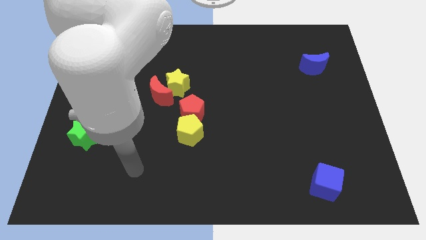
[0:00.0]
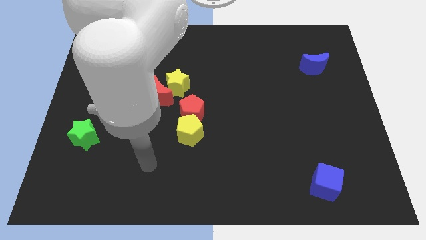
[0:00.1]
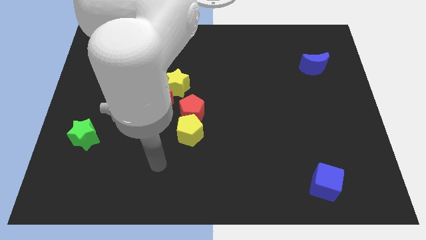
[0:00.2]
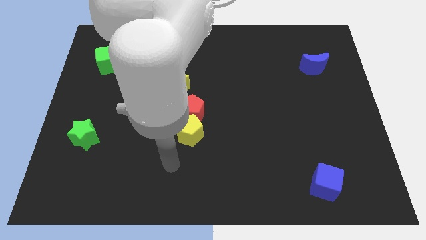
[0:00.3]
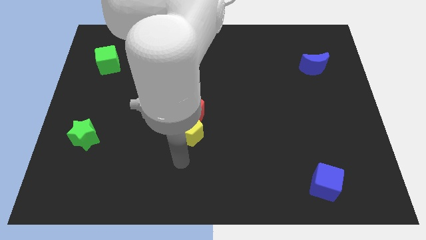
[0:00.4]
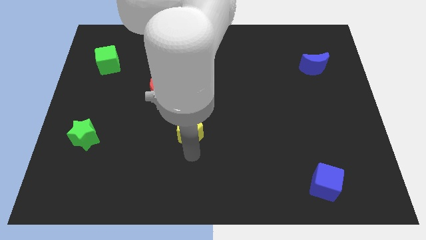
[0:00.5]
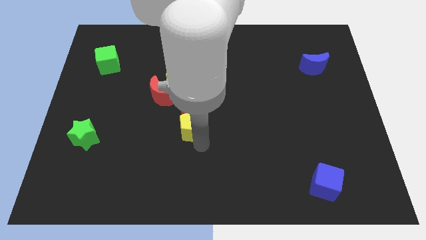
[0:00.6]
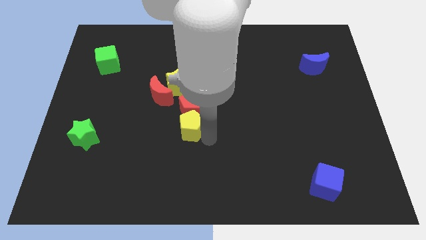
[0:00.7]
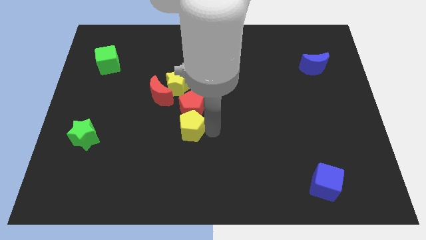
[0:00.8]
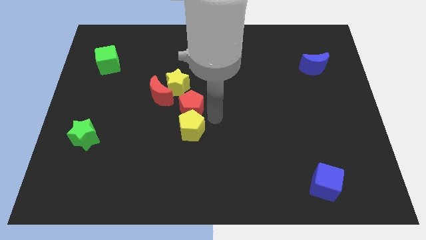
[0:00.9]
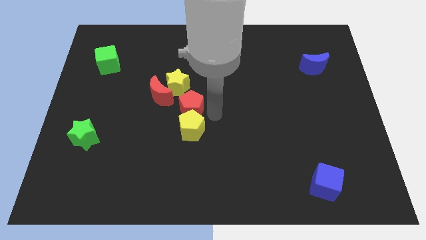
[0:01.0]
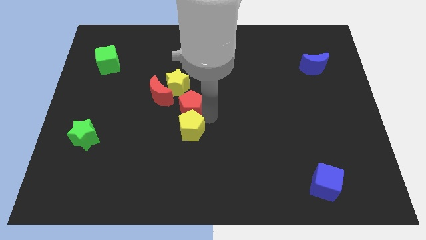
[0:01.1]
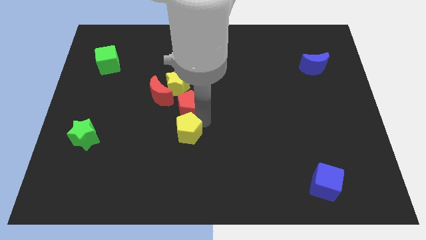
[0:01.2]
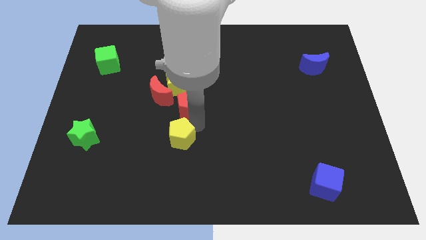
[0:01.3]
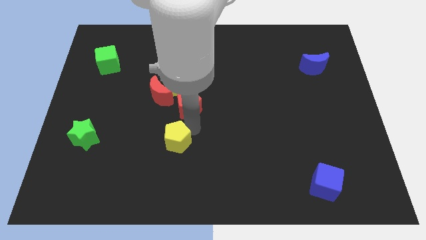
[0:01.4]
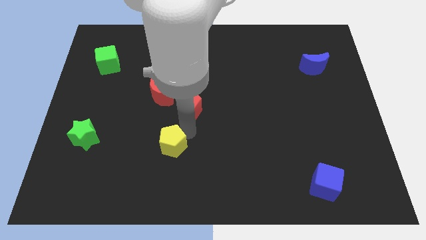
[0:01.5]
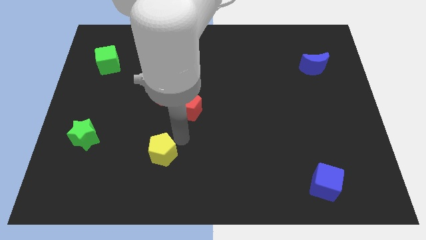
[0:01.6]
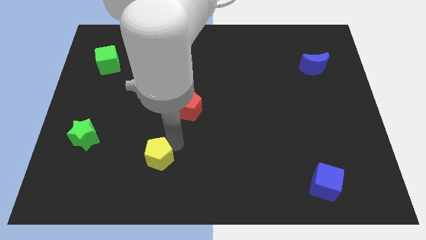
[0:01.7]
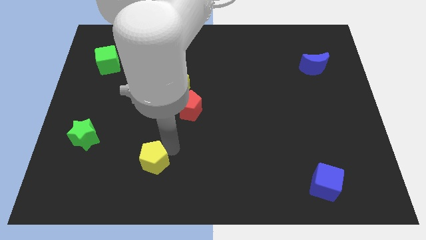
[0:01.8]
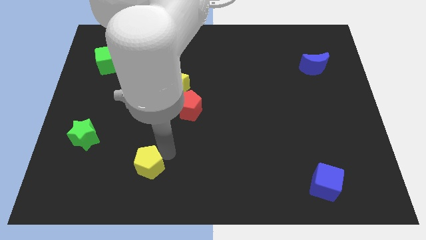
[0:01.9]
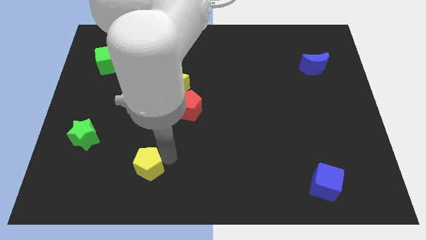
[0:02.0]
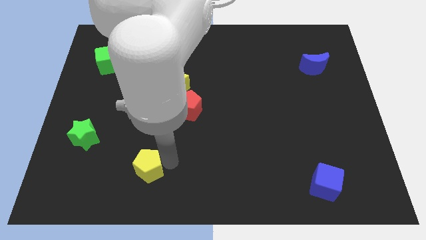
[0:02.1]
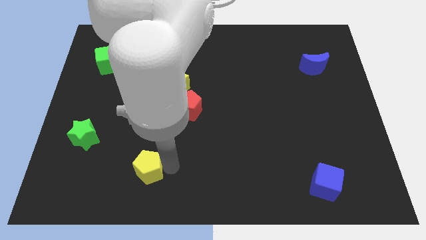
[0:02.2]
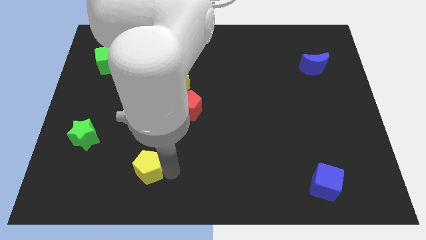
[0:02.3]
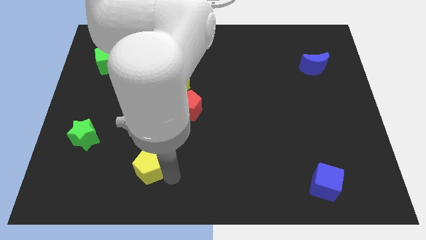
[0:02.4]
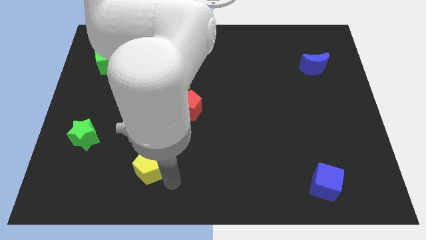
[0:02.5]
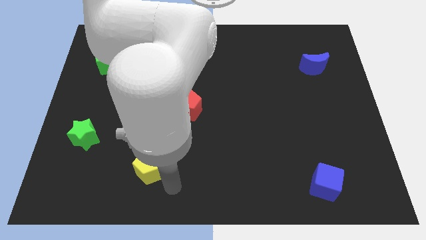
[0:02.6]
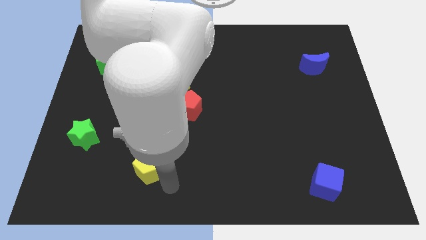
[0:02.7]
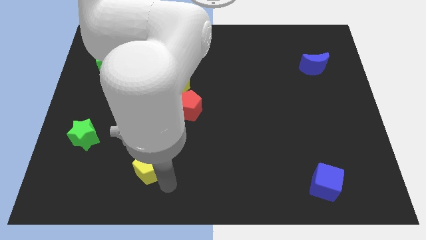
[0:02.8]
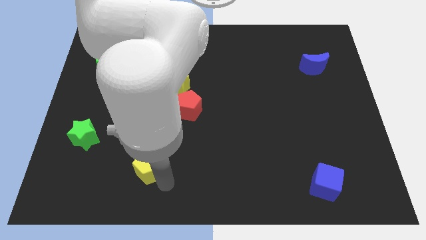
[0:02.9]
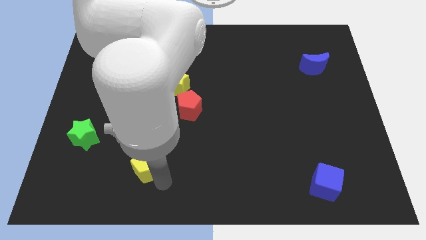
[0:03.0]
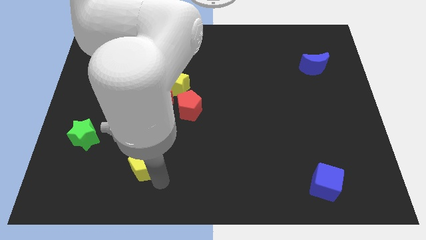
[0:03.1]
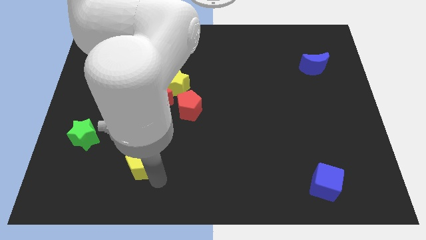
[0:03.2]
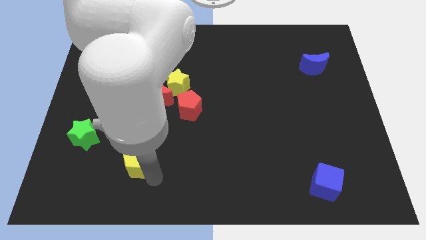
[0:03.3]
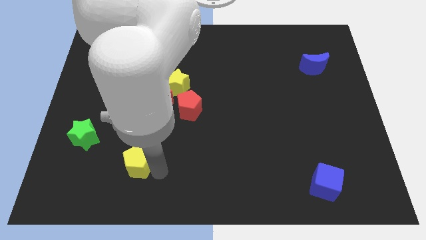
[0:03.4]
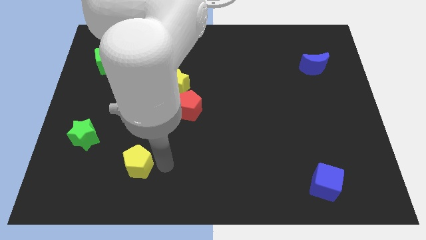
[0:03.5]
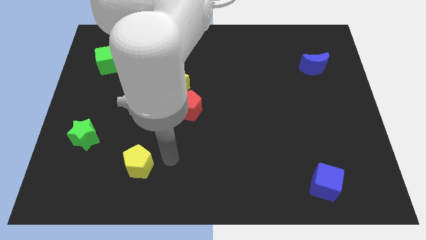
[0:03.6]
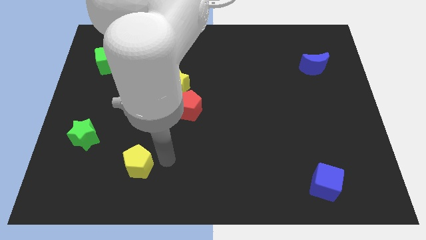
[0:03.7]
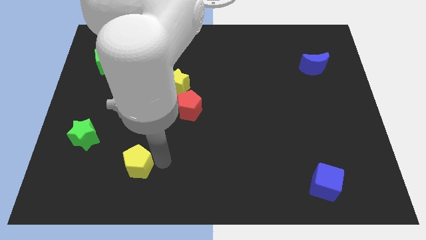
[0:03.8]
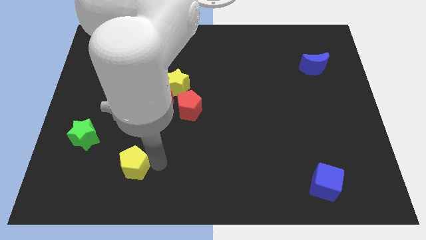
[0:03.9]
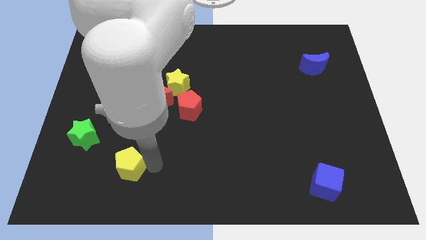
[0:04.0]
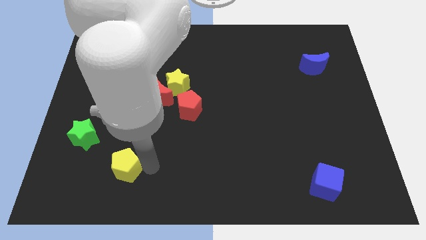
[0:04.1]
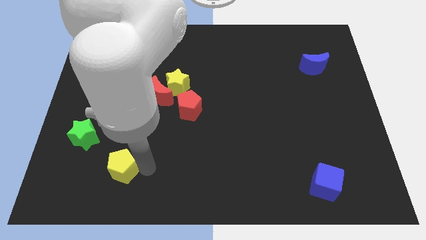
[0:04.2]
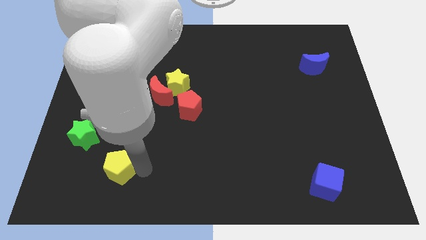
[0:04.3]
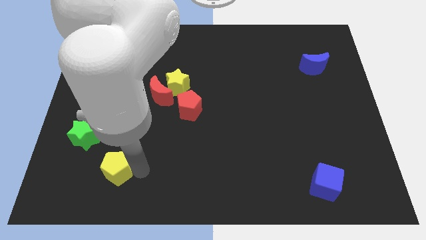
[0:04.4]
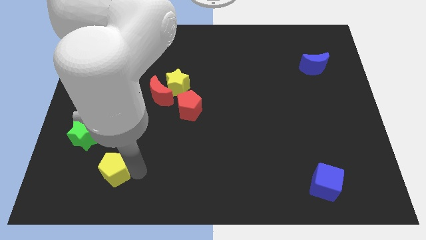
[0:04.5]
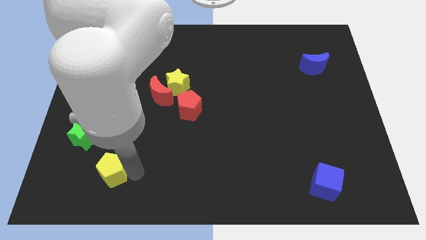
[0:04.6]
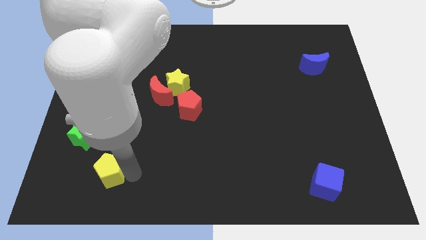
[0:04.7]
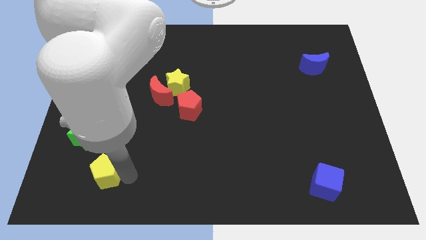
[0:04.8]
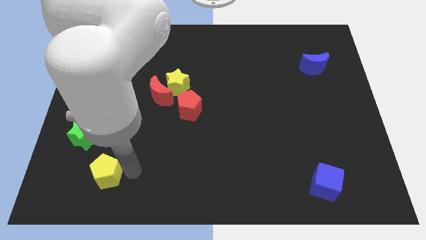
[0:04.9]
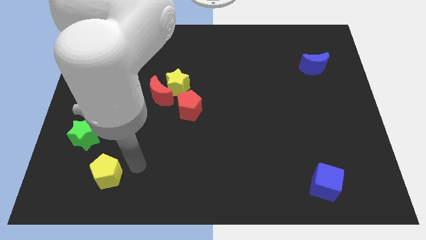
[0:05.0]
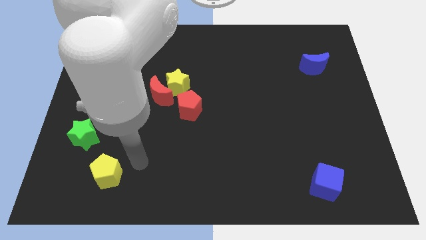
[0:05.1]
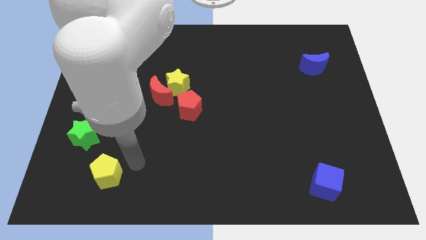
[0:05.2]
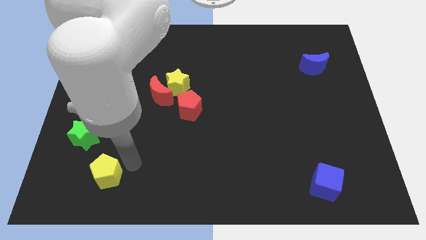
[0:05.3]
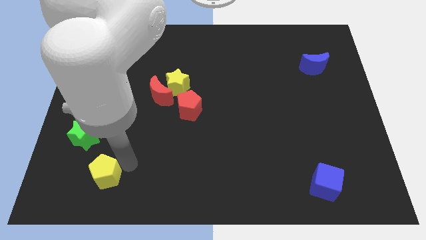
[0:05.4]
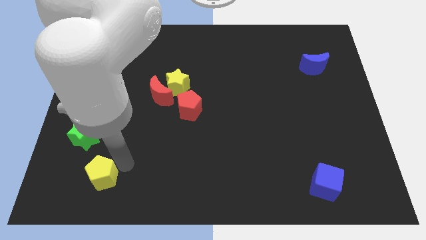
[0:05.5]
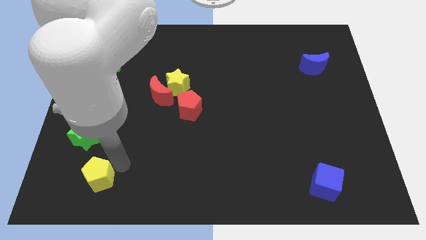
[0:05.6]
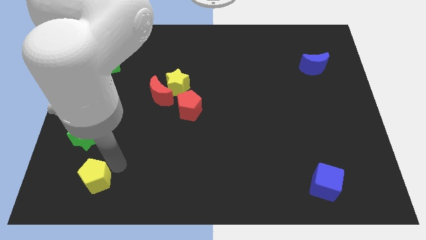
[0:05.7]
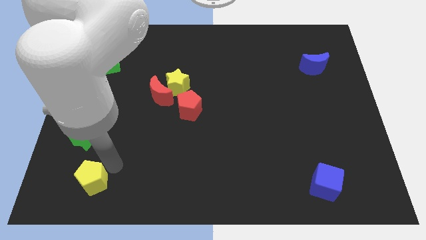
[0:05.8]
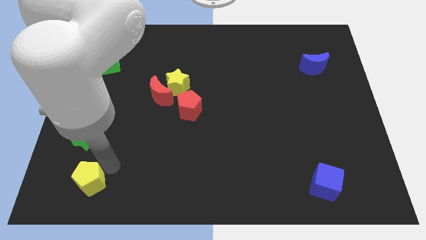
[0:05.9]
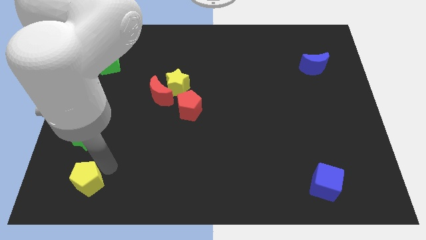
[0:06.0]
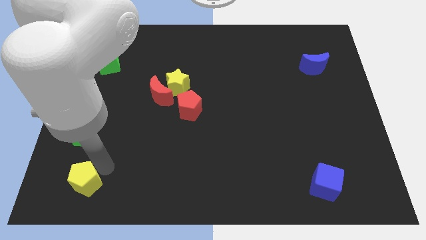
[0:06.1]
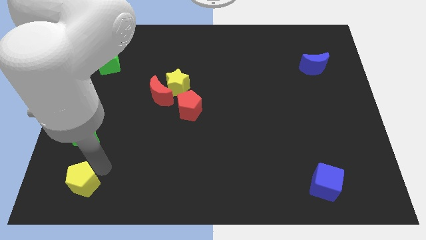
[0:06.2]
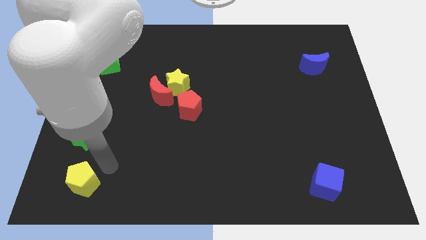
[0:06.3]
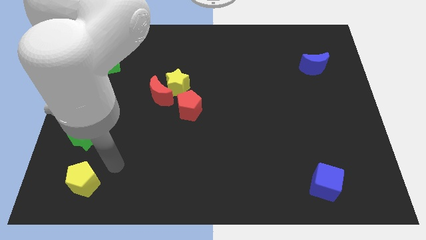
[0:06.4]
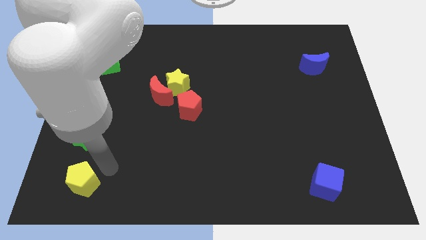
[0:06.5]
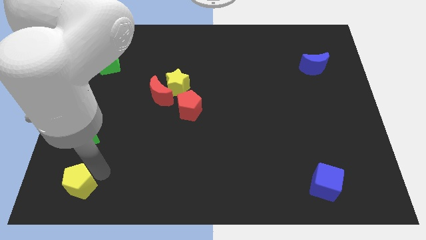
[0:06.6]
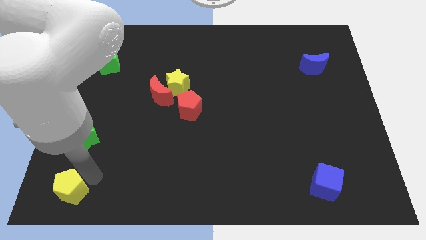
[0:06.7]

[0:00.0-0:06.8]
put the yellow pentagon to the bottom left corner
